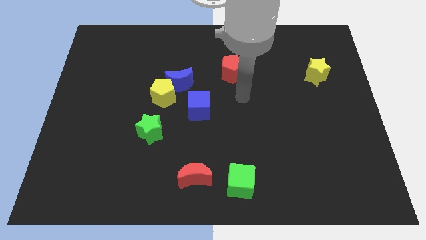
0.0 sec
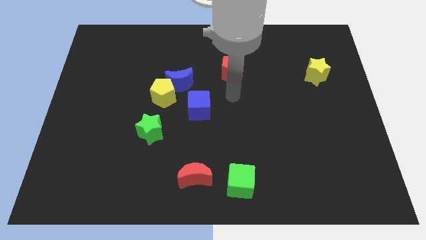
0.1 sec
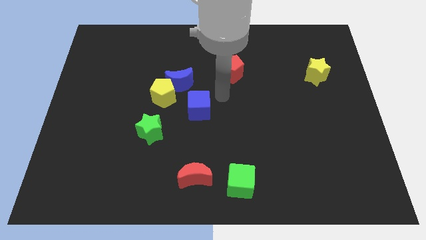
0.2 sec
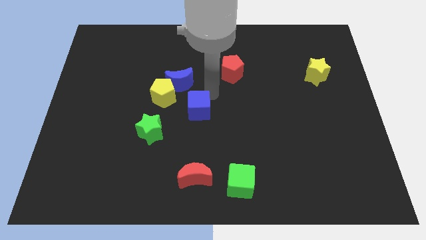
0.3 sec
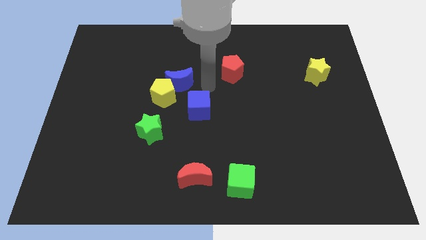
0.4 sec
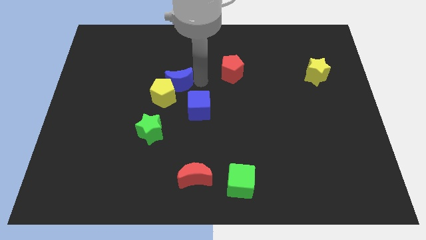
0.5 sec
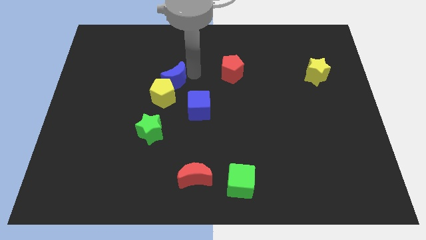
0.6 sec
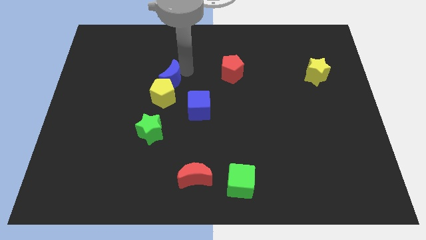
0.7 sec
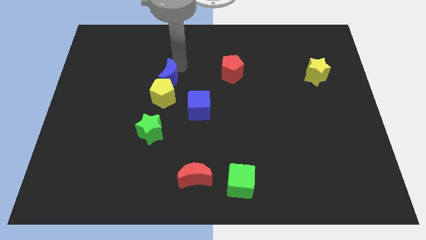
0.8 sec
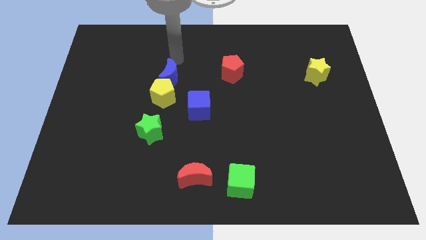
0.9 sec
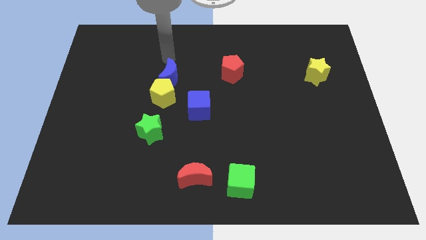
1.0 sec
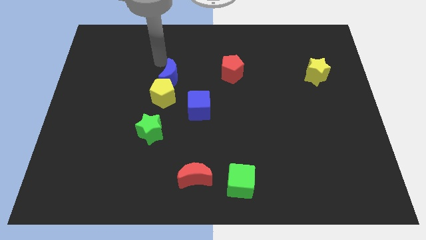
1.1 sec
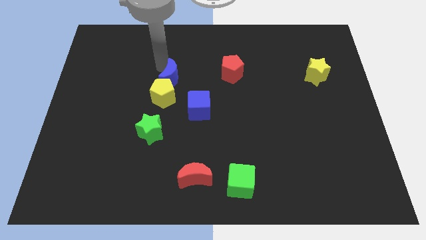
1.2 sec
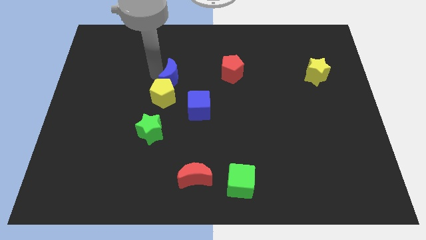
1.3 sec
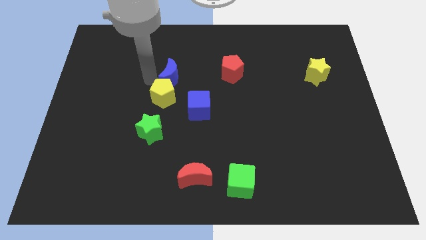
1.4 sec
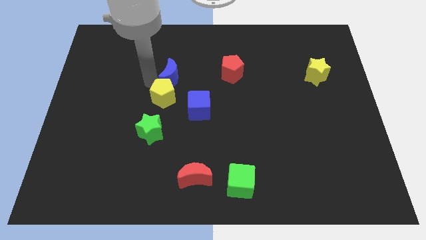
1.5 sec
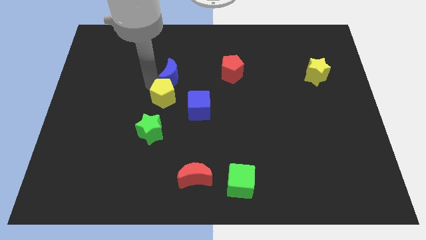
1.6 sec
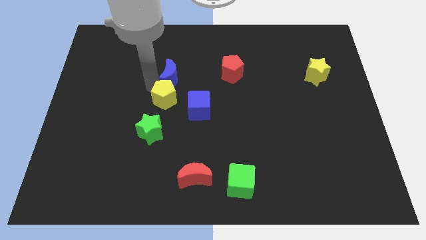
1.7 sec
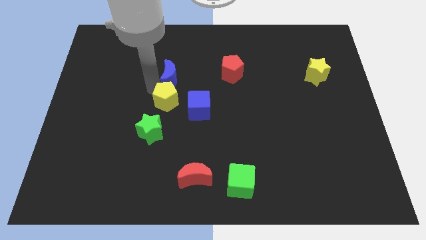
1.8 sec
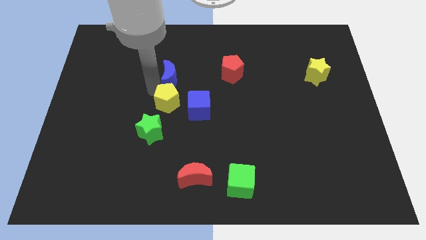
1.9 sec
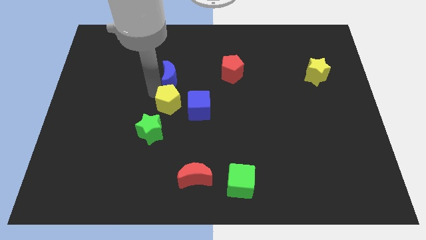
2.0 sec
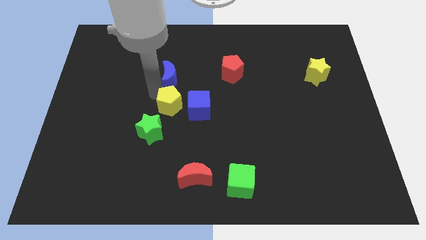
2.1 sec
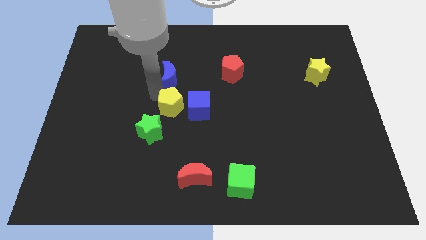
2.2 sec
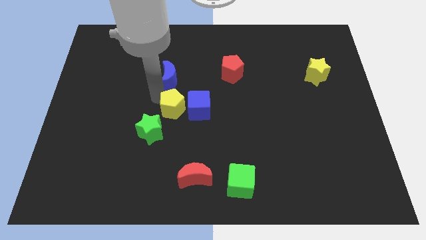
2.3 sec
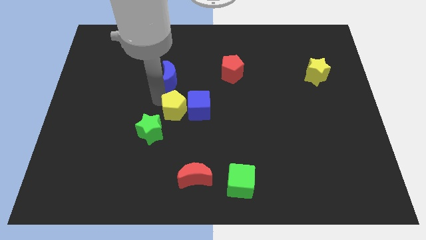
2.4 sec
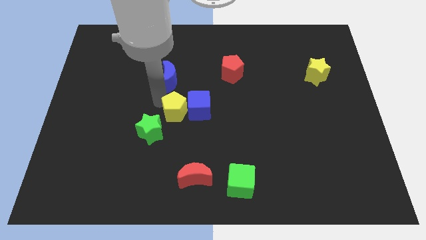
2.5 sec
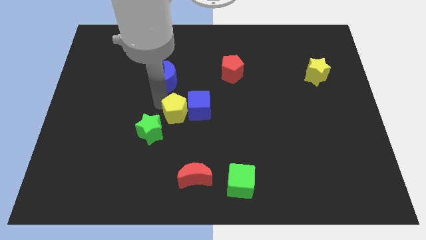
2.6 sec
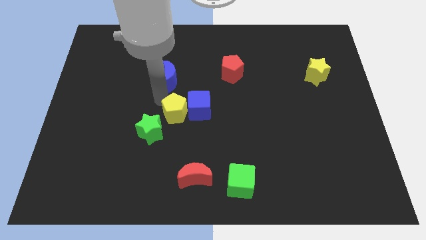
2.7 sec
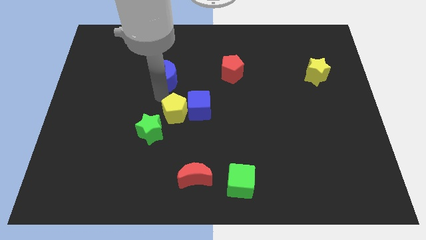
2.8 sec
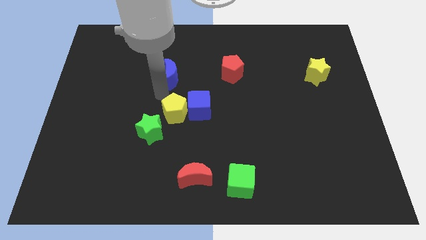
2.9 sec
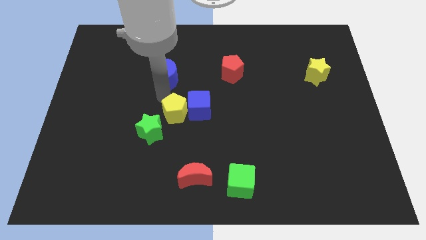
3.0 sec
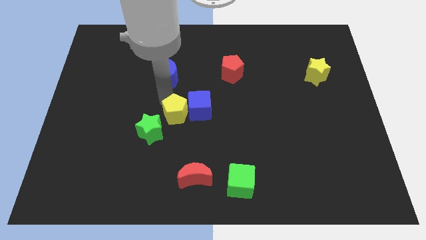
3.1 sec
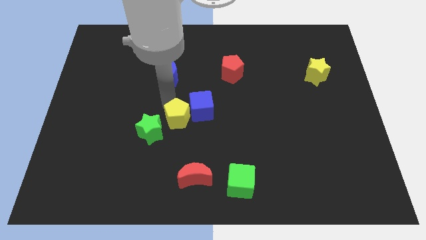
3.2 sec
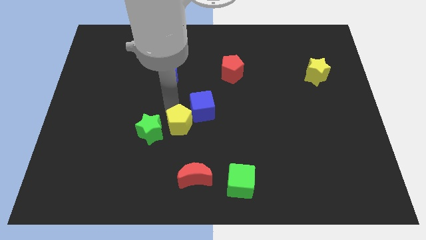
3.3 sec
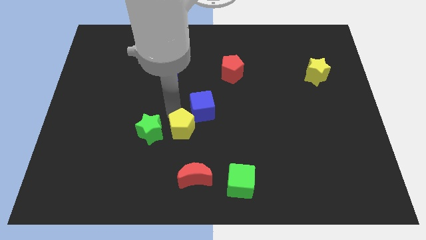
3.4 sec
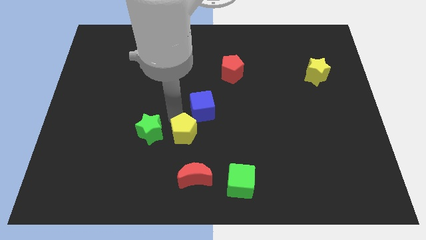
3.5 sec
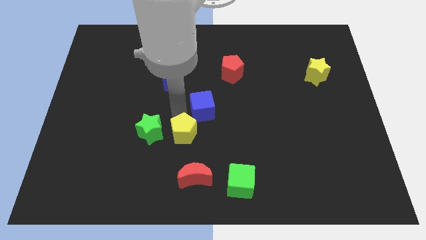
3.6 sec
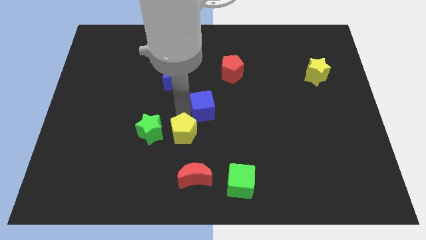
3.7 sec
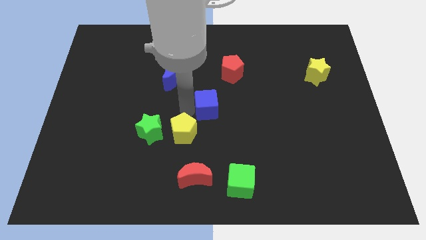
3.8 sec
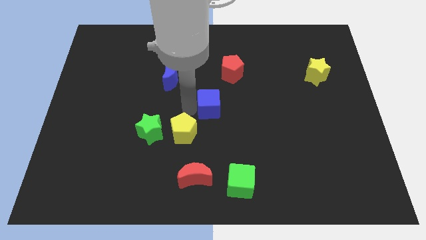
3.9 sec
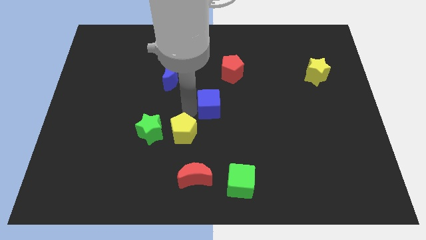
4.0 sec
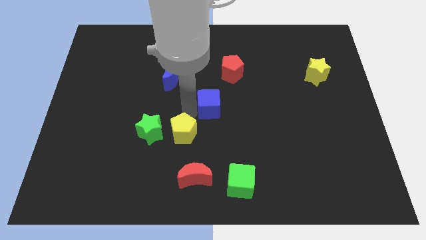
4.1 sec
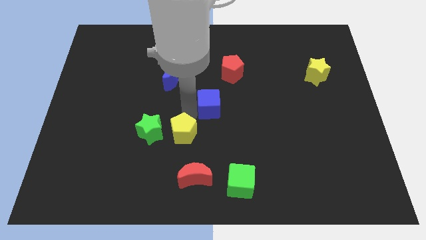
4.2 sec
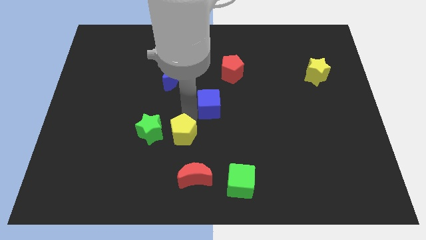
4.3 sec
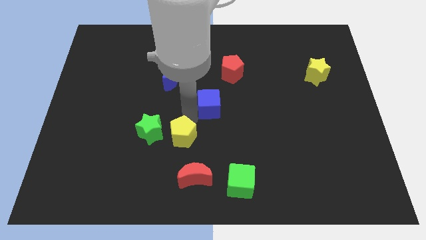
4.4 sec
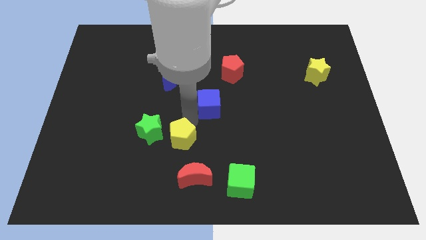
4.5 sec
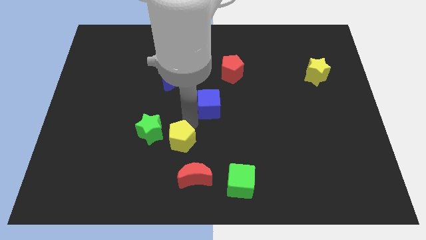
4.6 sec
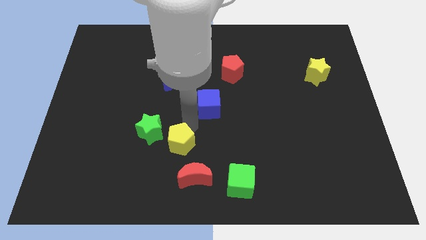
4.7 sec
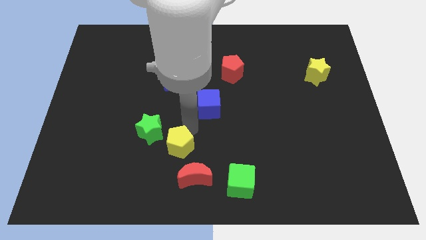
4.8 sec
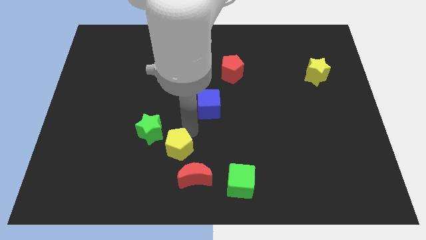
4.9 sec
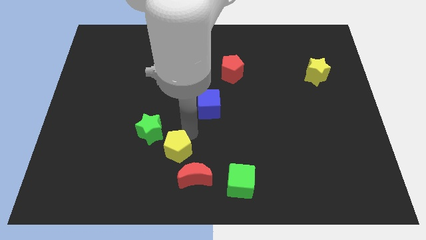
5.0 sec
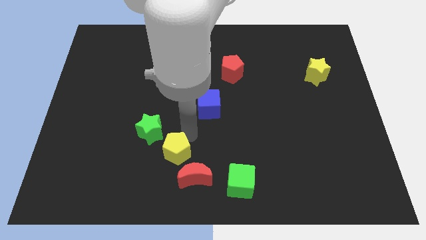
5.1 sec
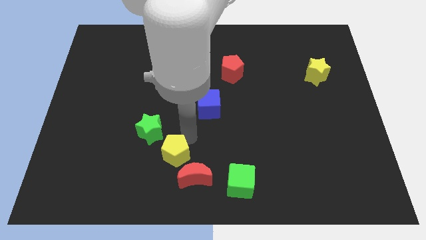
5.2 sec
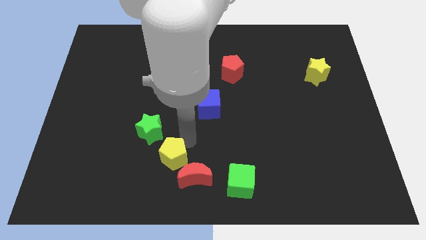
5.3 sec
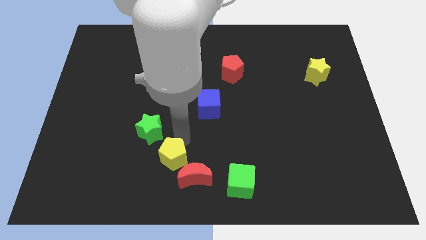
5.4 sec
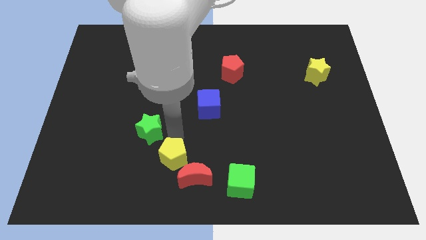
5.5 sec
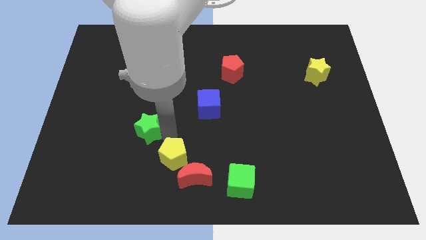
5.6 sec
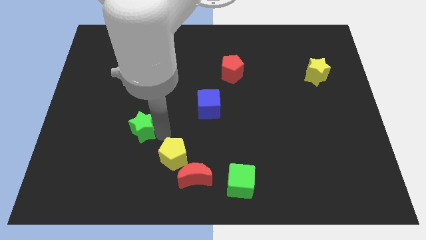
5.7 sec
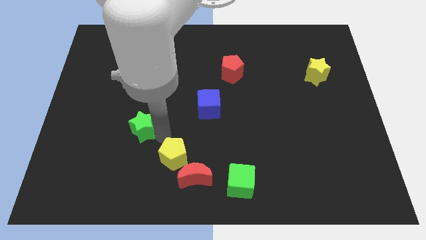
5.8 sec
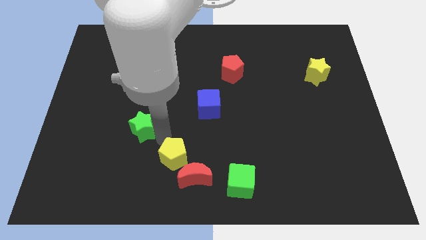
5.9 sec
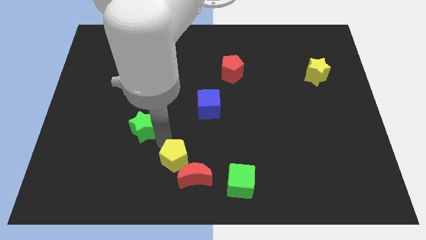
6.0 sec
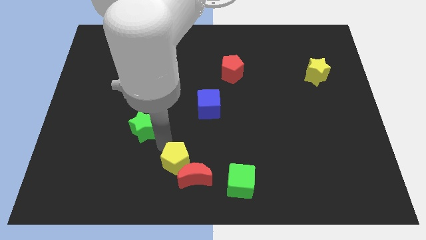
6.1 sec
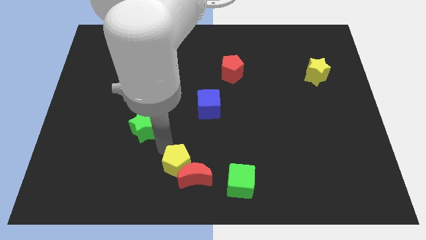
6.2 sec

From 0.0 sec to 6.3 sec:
move the yellow pentagon to the left of the green cube

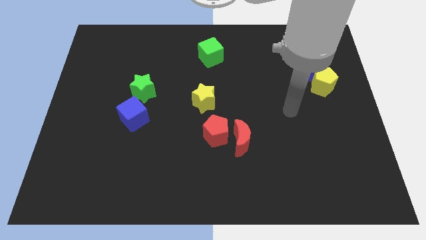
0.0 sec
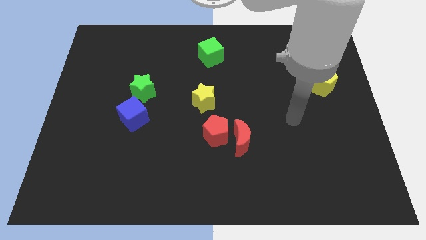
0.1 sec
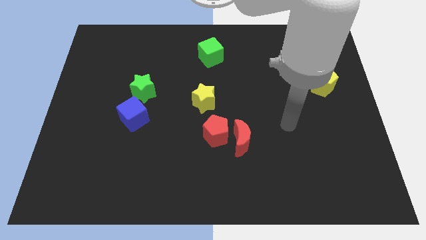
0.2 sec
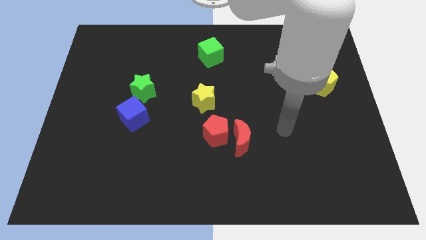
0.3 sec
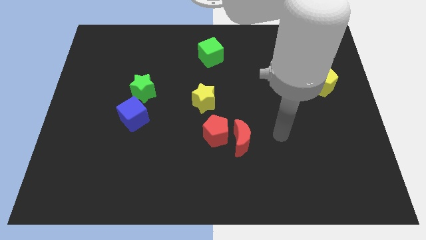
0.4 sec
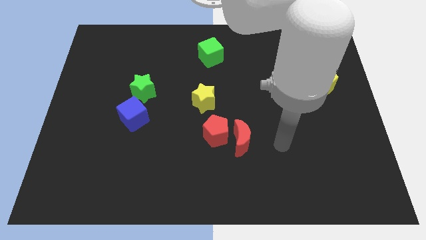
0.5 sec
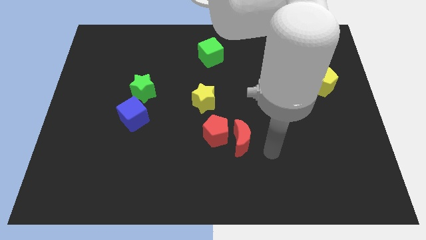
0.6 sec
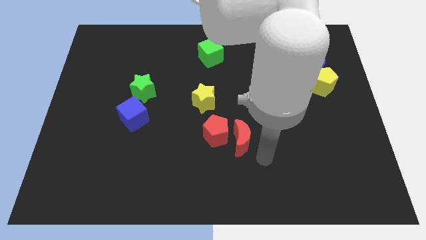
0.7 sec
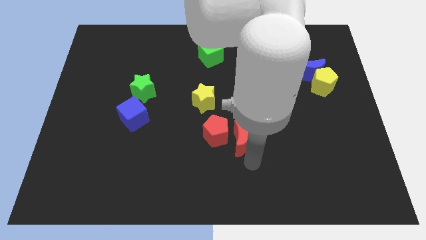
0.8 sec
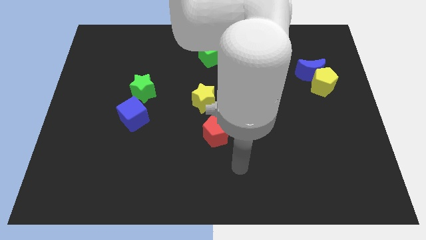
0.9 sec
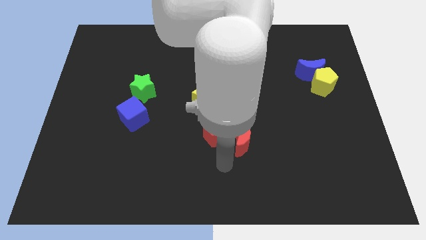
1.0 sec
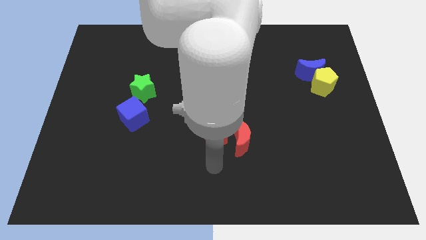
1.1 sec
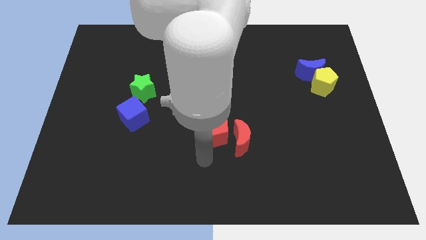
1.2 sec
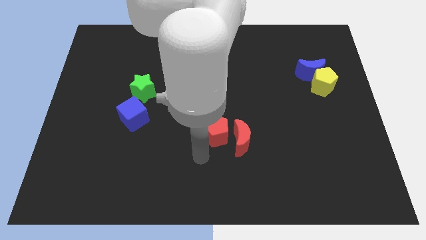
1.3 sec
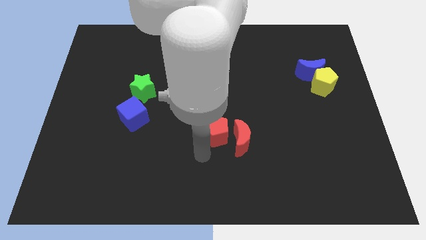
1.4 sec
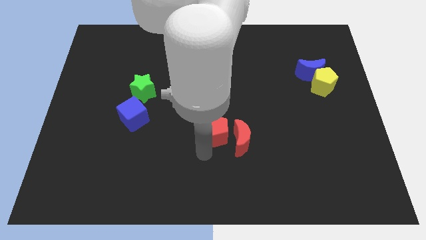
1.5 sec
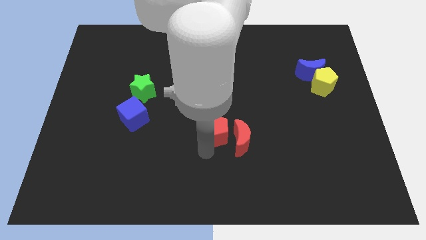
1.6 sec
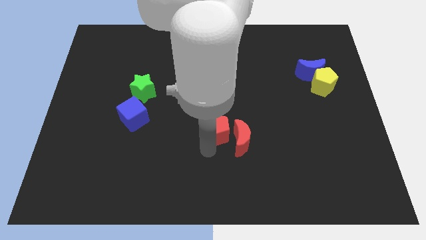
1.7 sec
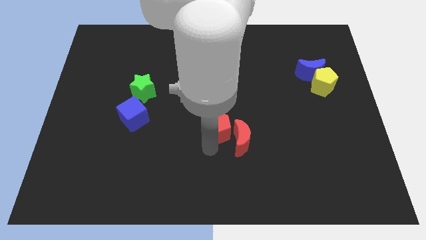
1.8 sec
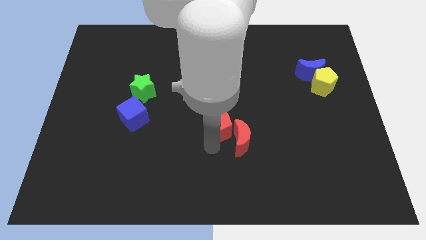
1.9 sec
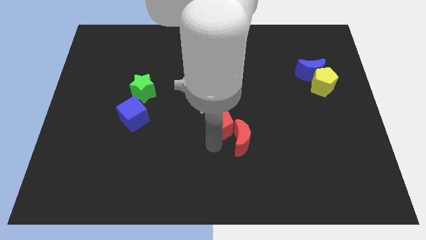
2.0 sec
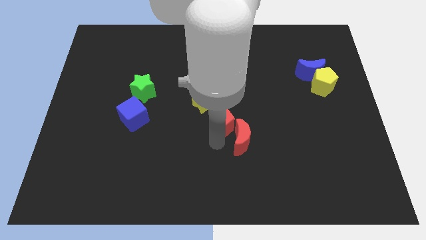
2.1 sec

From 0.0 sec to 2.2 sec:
move the red pentagon above the red moon
